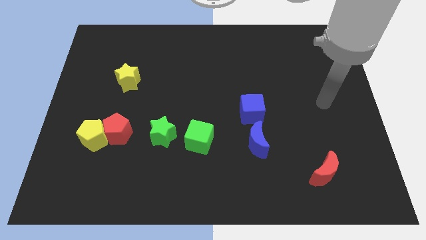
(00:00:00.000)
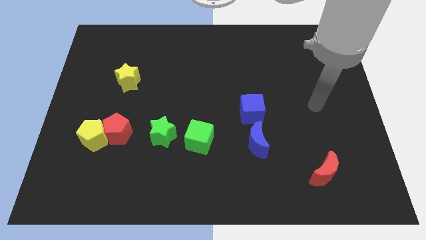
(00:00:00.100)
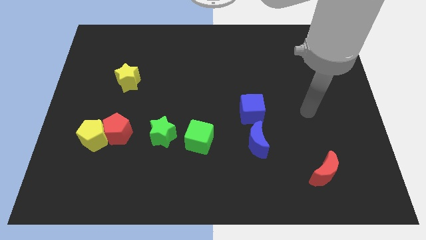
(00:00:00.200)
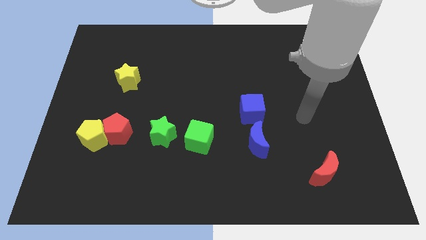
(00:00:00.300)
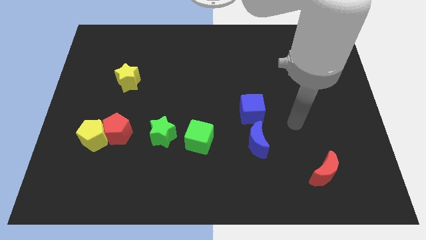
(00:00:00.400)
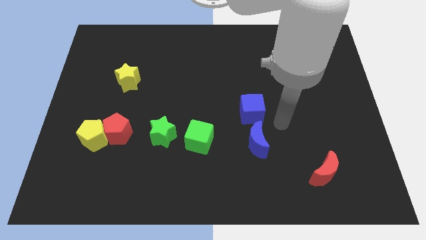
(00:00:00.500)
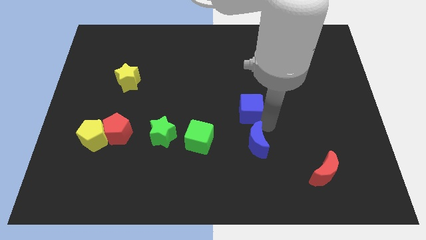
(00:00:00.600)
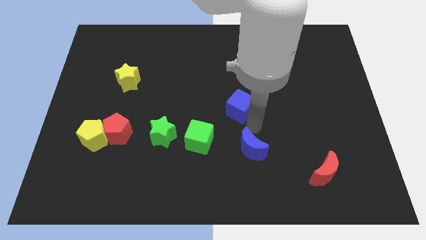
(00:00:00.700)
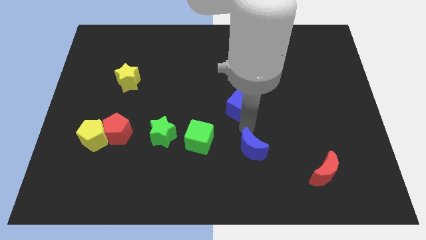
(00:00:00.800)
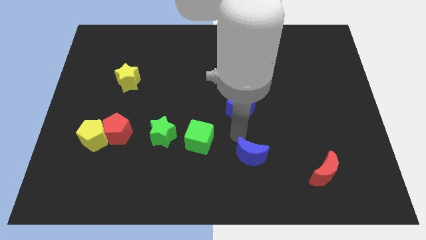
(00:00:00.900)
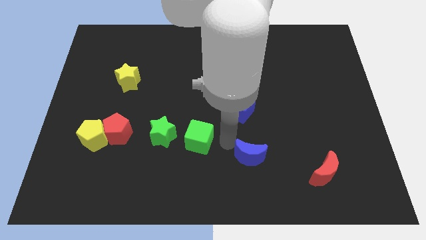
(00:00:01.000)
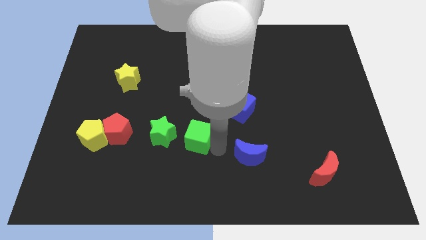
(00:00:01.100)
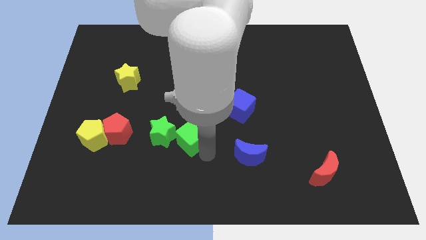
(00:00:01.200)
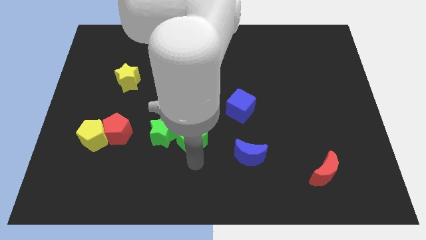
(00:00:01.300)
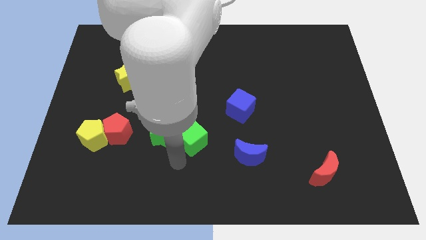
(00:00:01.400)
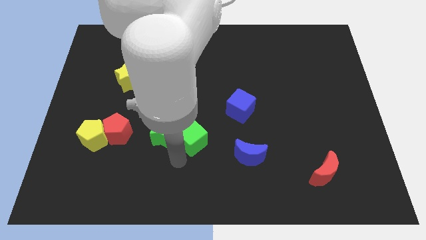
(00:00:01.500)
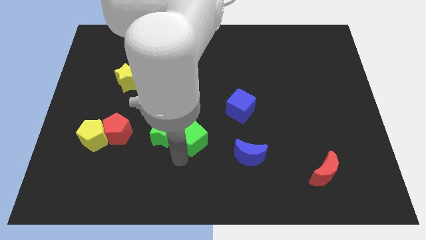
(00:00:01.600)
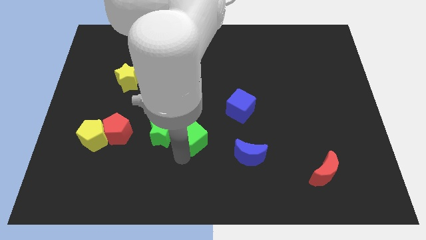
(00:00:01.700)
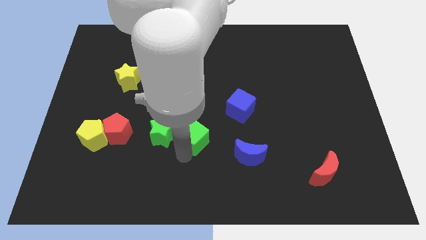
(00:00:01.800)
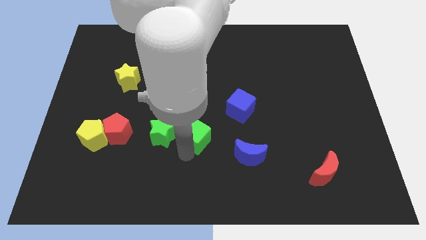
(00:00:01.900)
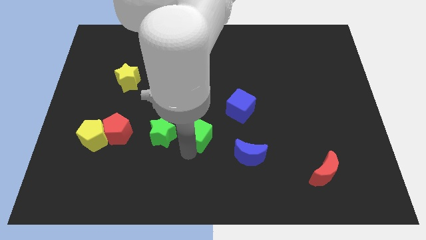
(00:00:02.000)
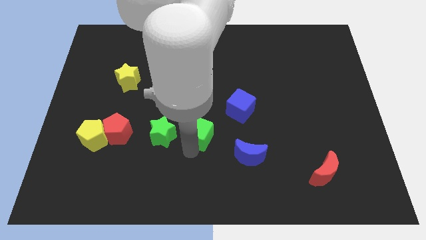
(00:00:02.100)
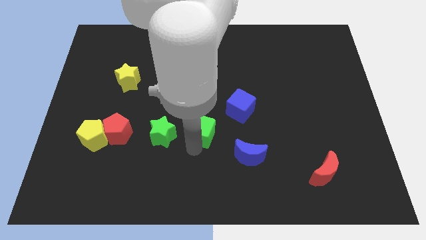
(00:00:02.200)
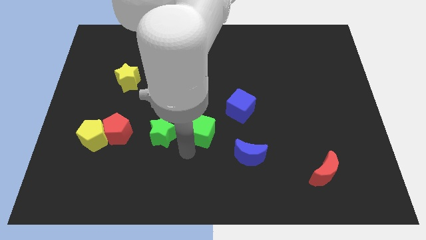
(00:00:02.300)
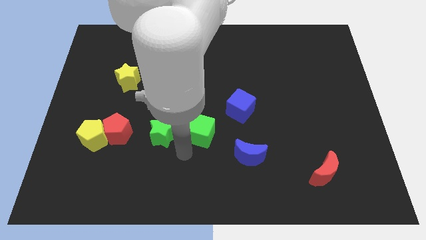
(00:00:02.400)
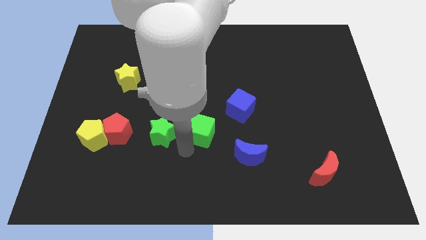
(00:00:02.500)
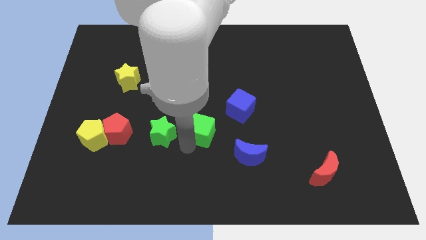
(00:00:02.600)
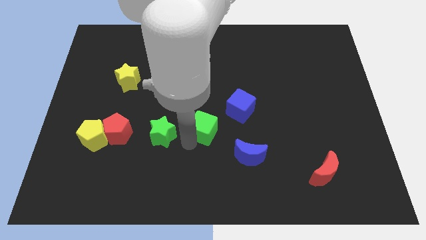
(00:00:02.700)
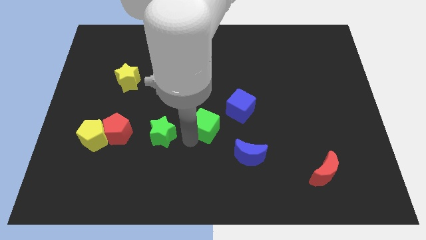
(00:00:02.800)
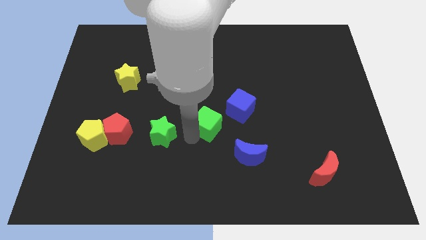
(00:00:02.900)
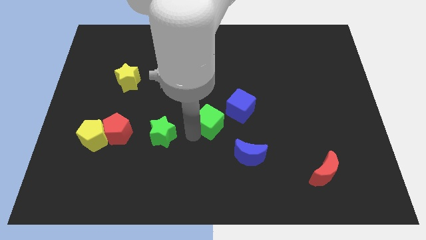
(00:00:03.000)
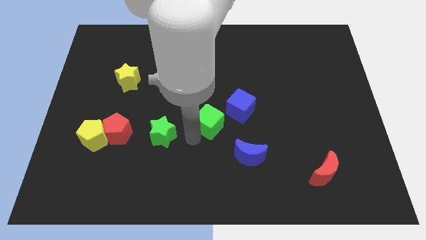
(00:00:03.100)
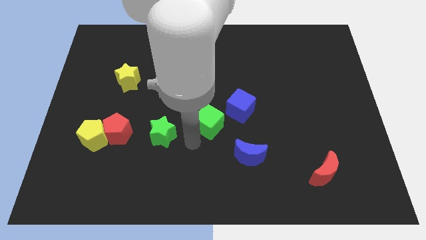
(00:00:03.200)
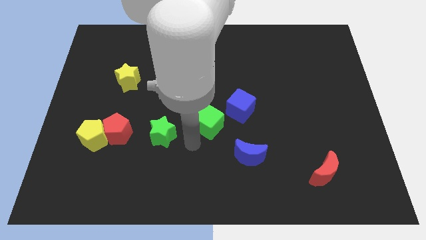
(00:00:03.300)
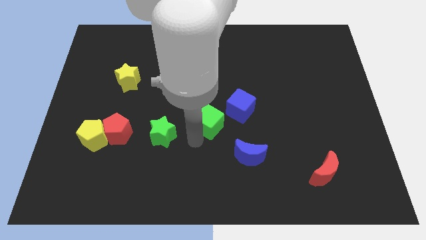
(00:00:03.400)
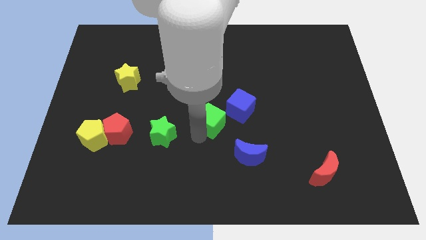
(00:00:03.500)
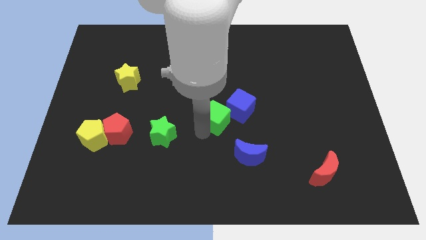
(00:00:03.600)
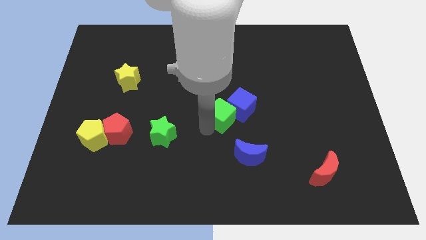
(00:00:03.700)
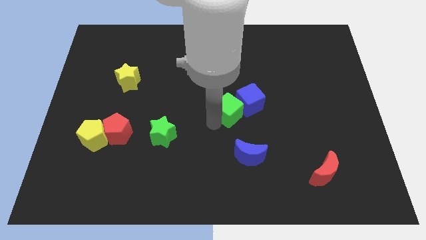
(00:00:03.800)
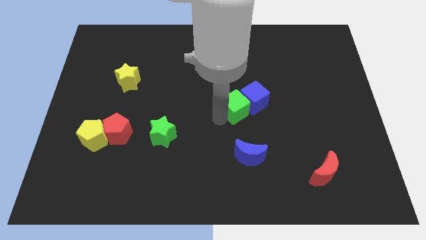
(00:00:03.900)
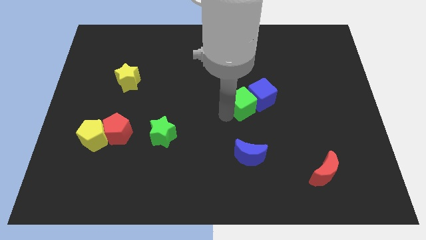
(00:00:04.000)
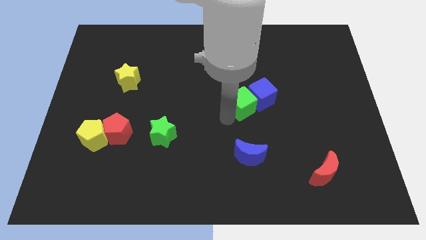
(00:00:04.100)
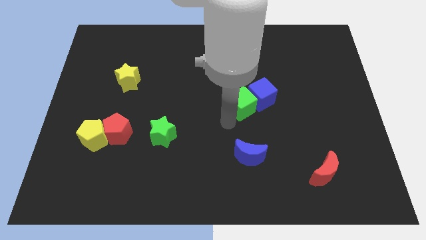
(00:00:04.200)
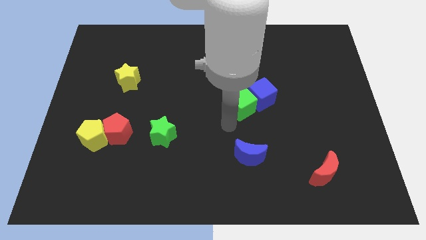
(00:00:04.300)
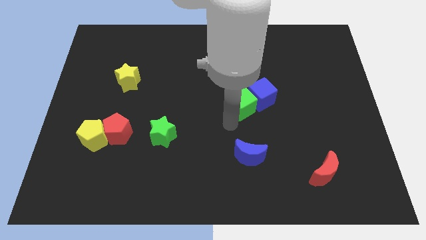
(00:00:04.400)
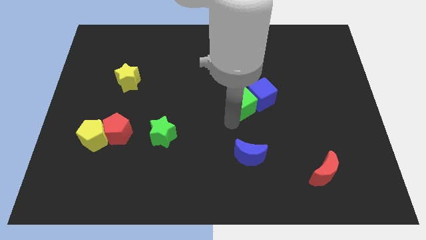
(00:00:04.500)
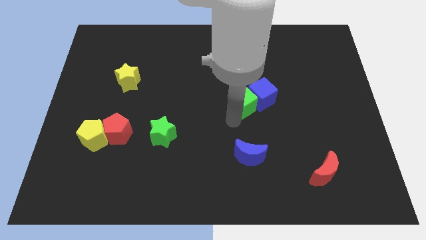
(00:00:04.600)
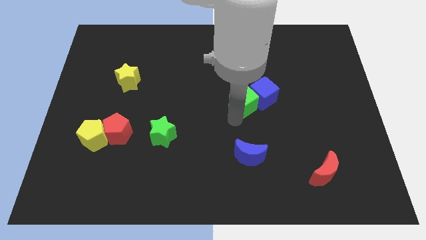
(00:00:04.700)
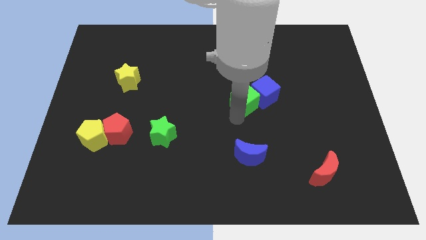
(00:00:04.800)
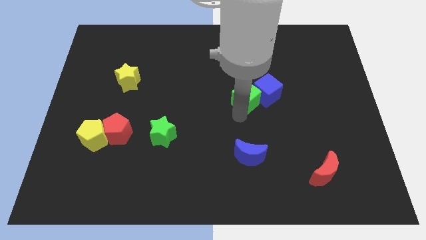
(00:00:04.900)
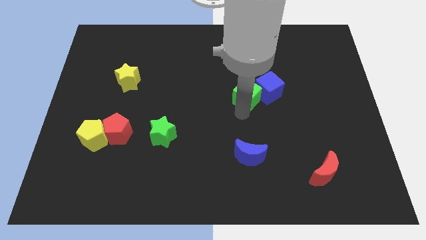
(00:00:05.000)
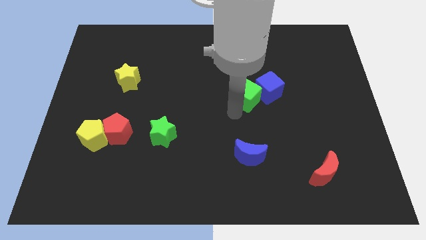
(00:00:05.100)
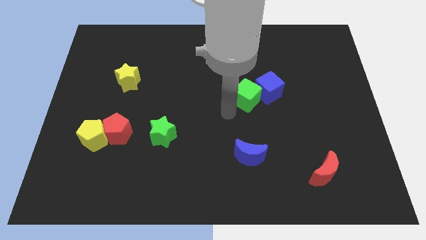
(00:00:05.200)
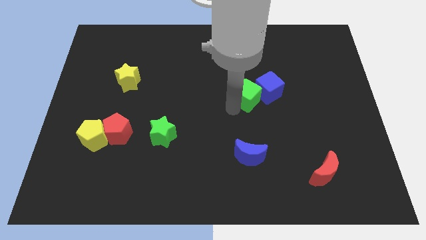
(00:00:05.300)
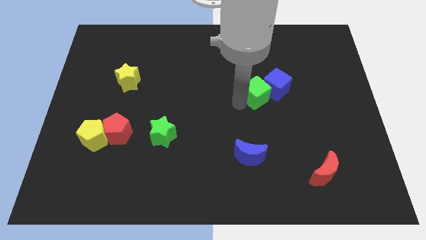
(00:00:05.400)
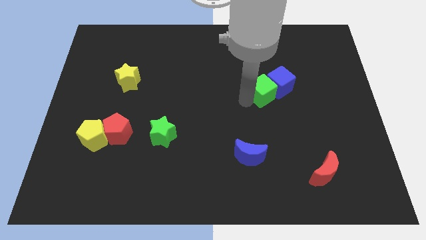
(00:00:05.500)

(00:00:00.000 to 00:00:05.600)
push the green cube upwards and to the right

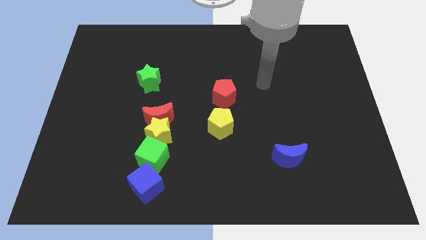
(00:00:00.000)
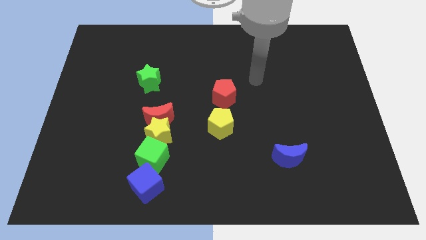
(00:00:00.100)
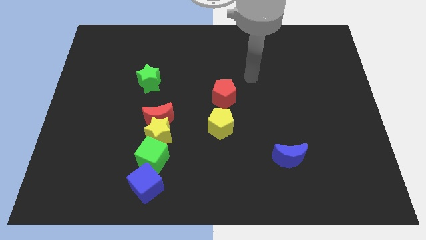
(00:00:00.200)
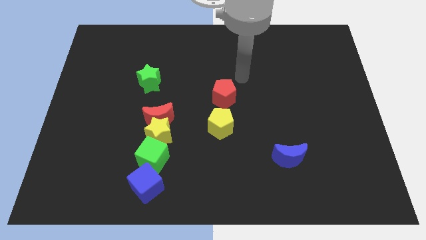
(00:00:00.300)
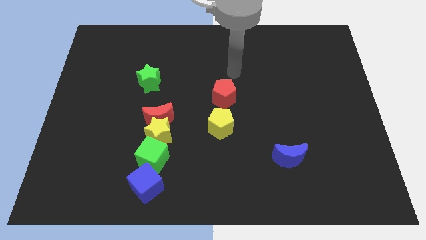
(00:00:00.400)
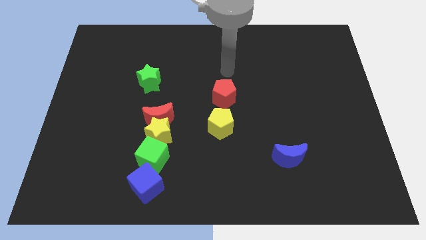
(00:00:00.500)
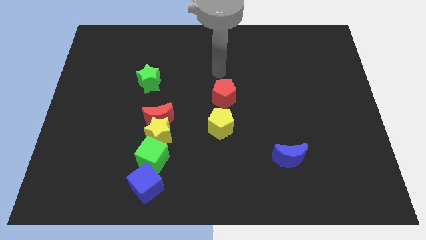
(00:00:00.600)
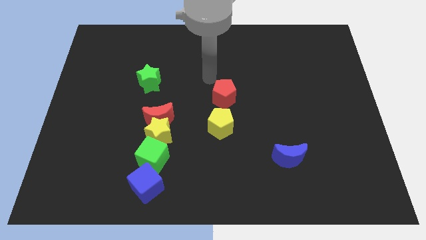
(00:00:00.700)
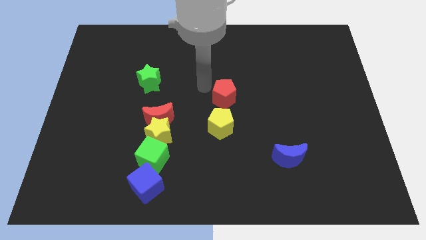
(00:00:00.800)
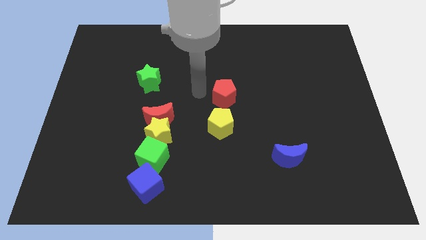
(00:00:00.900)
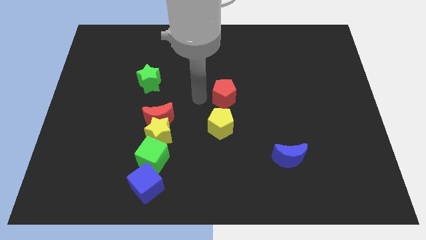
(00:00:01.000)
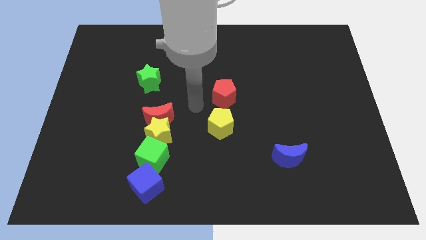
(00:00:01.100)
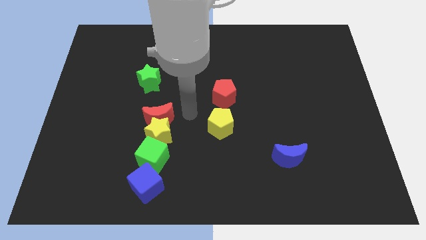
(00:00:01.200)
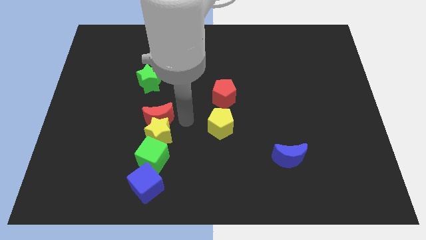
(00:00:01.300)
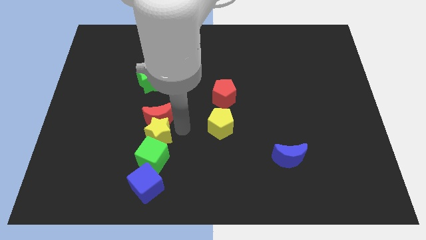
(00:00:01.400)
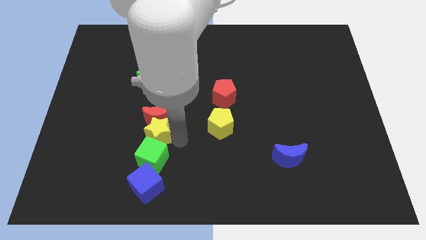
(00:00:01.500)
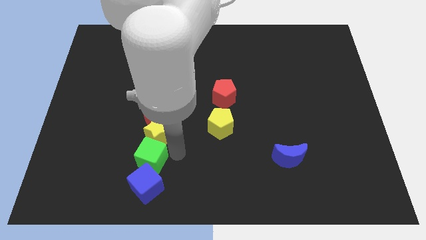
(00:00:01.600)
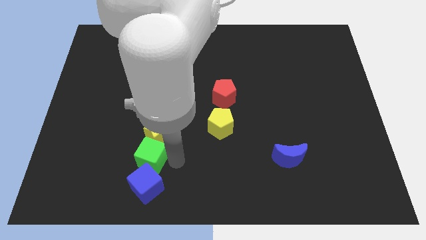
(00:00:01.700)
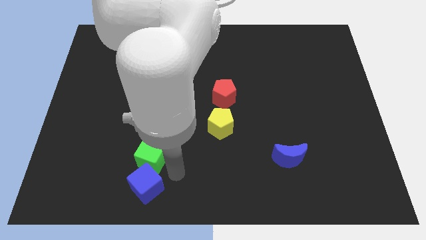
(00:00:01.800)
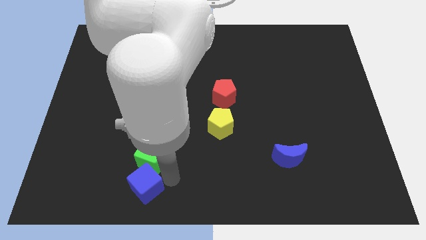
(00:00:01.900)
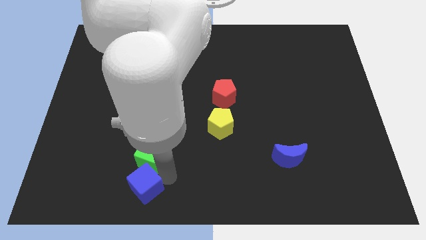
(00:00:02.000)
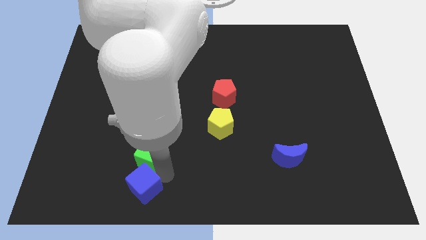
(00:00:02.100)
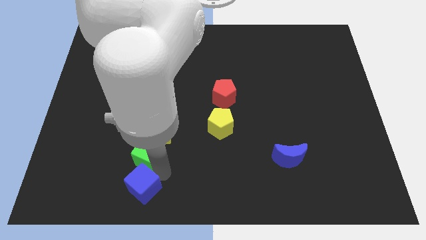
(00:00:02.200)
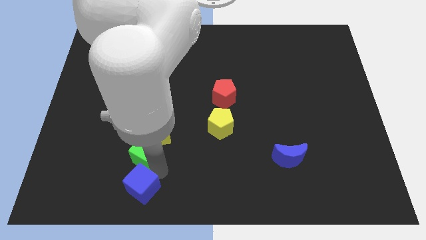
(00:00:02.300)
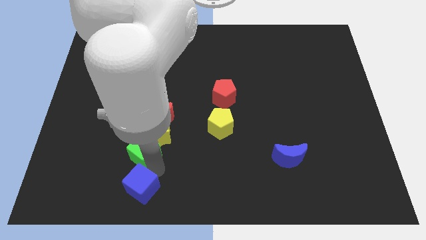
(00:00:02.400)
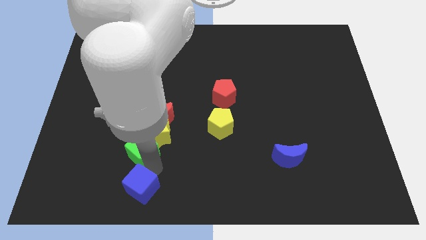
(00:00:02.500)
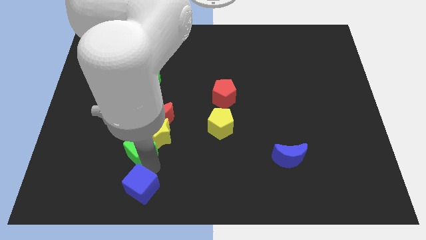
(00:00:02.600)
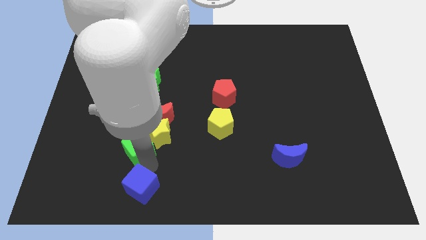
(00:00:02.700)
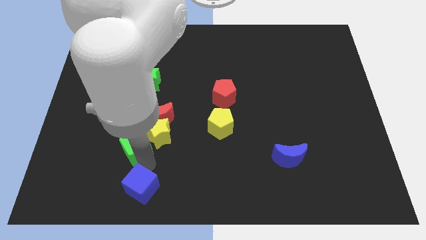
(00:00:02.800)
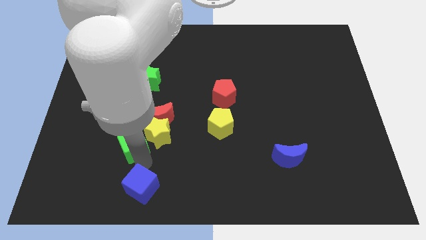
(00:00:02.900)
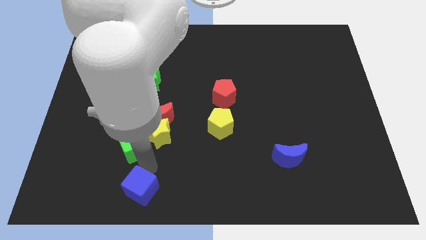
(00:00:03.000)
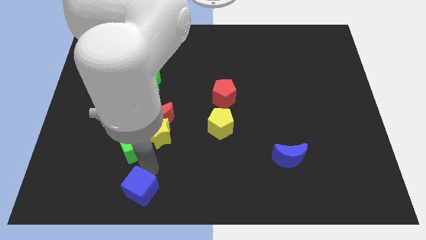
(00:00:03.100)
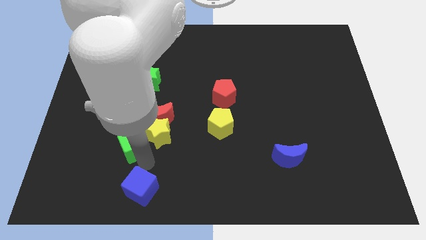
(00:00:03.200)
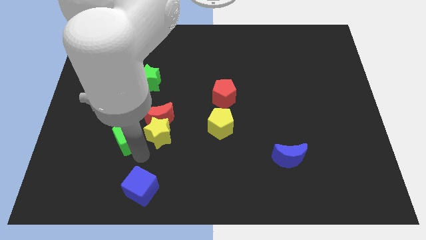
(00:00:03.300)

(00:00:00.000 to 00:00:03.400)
slightly push the green cube upwards and then to the left
